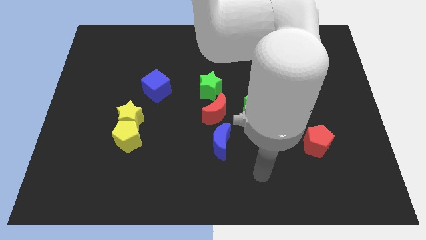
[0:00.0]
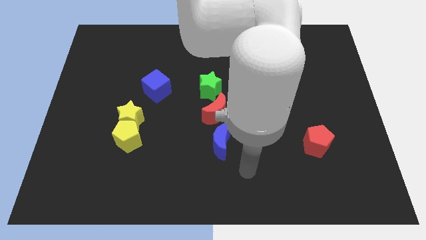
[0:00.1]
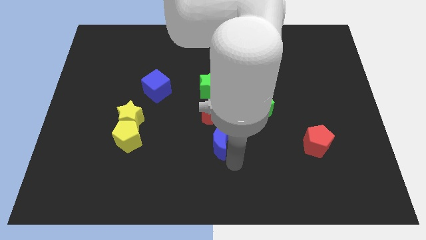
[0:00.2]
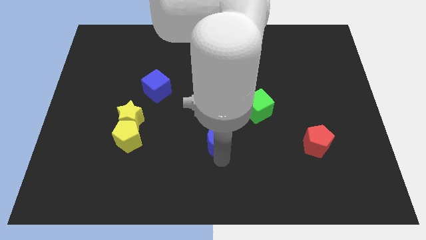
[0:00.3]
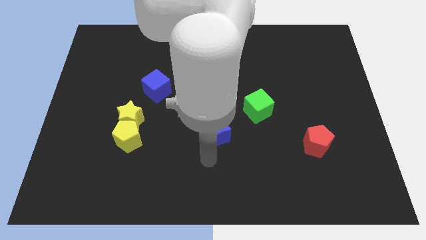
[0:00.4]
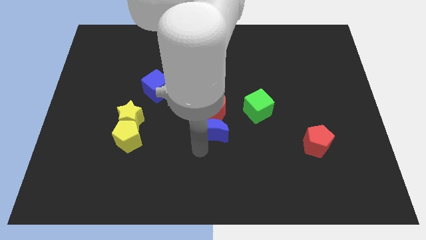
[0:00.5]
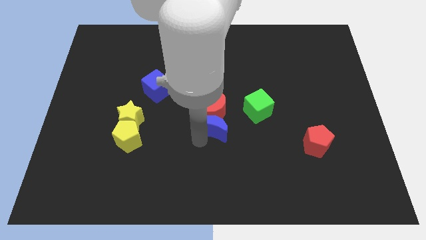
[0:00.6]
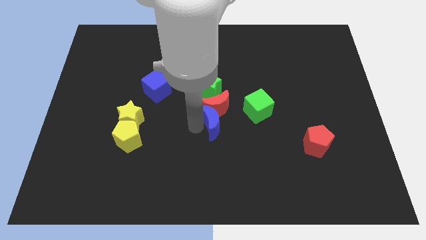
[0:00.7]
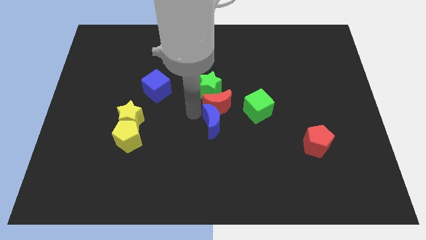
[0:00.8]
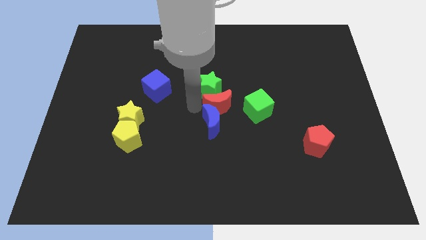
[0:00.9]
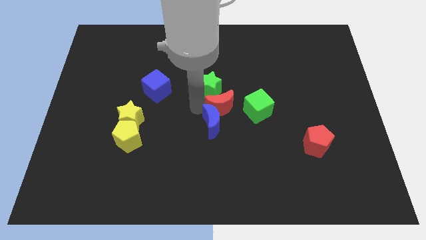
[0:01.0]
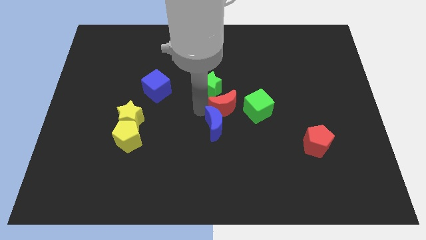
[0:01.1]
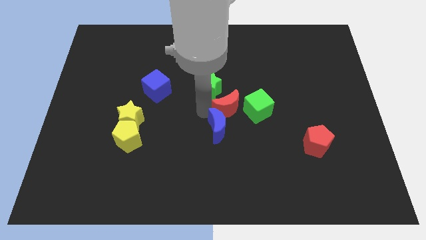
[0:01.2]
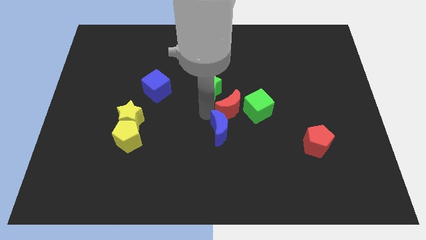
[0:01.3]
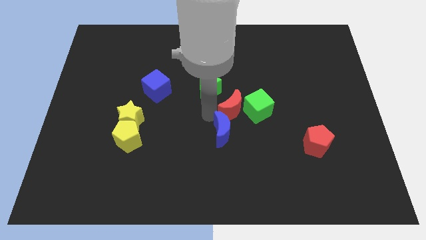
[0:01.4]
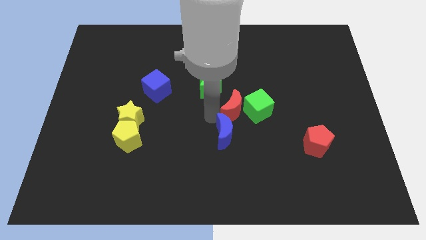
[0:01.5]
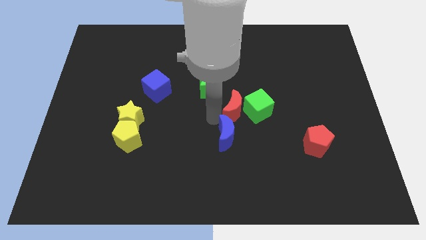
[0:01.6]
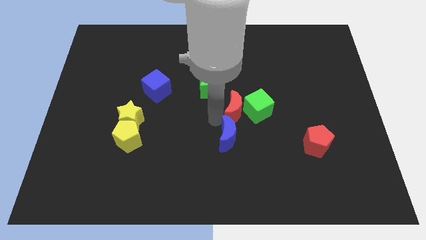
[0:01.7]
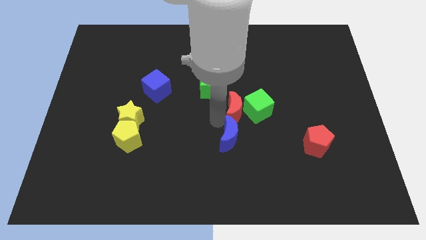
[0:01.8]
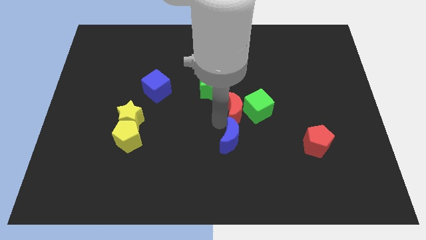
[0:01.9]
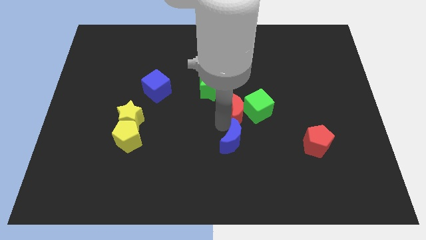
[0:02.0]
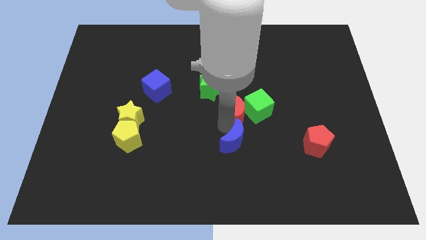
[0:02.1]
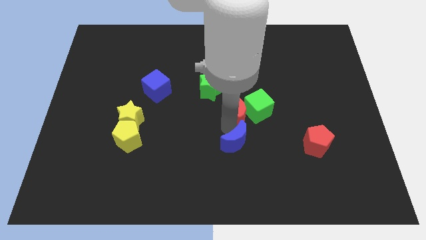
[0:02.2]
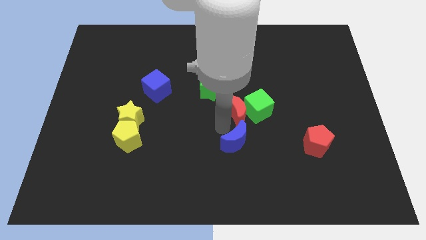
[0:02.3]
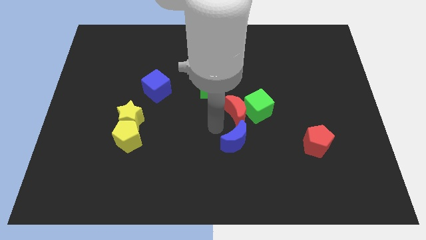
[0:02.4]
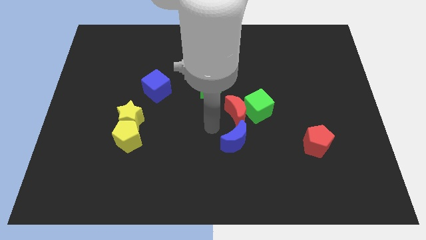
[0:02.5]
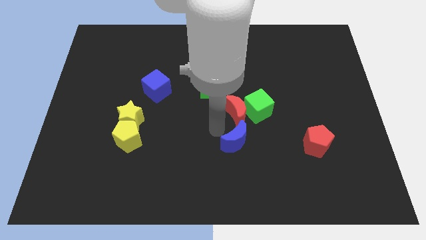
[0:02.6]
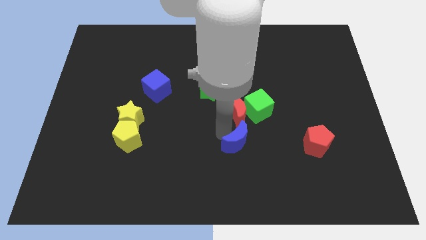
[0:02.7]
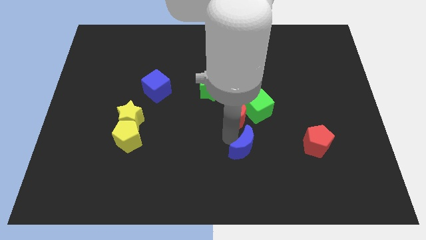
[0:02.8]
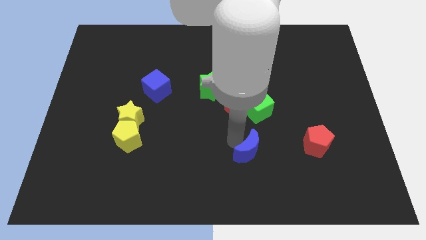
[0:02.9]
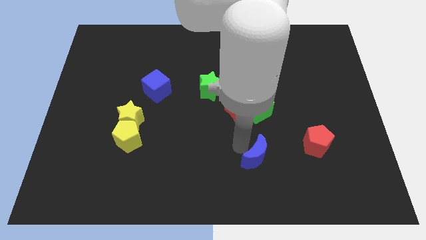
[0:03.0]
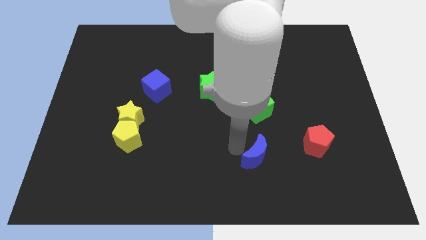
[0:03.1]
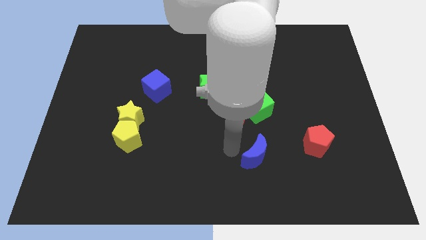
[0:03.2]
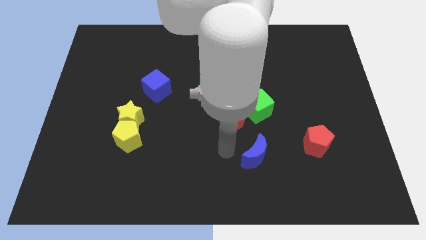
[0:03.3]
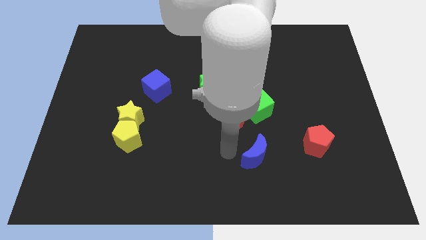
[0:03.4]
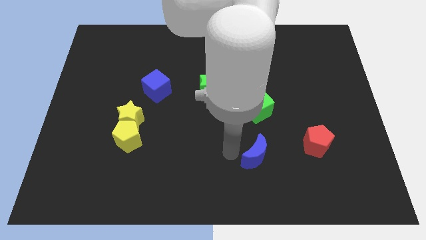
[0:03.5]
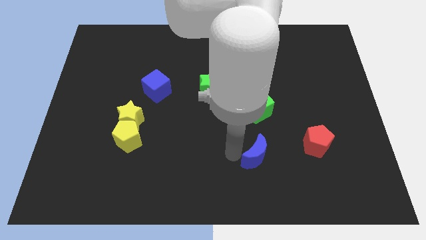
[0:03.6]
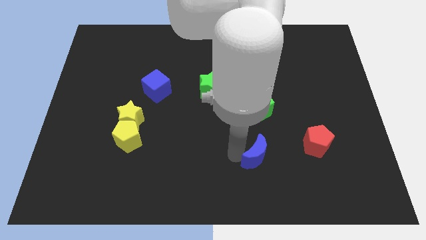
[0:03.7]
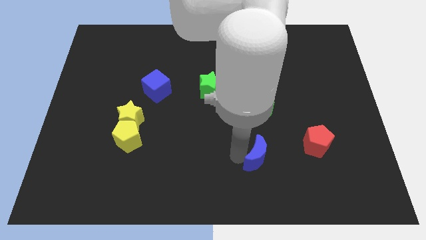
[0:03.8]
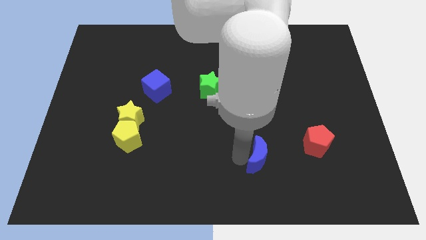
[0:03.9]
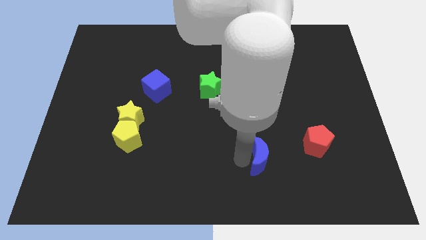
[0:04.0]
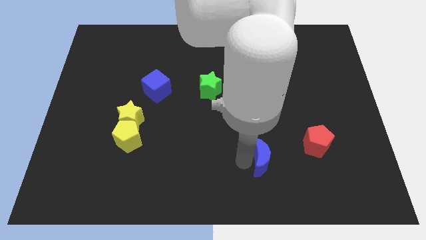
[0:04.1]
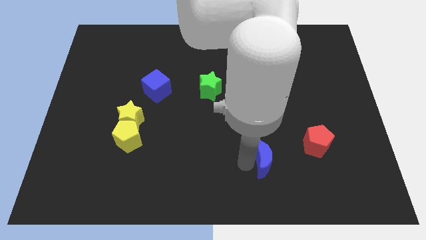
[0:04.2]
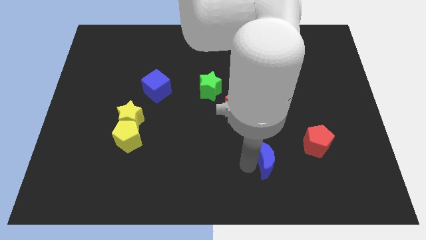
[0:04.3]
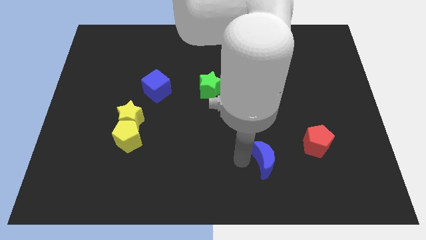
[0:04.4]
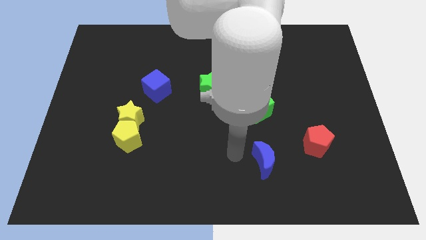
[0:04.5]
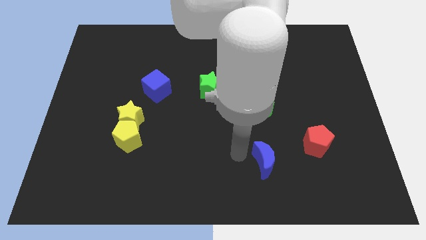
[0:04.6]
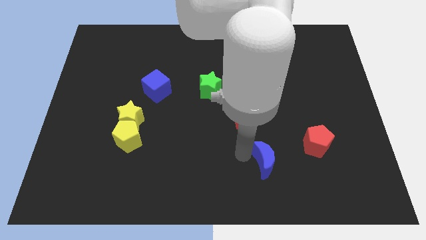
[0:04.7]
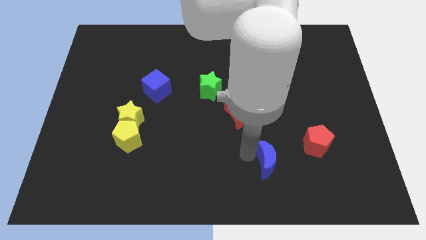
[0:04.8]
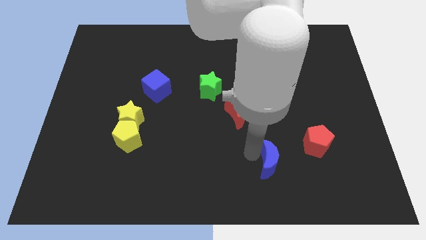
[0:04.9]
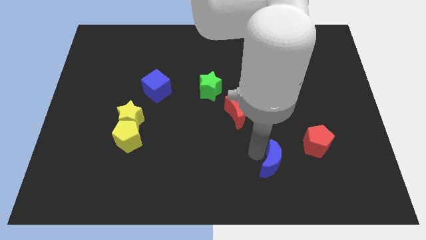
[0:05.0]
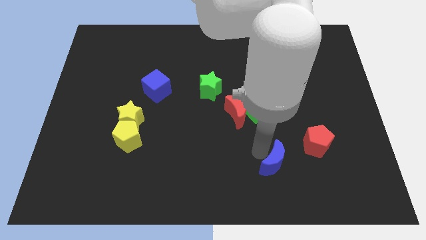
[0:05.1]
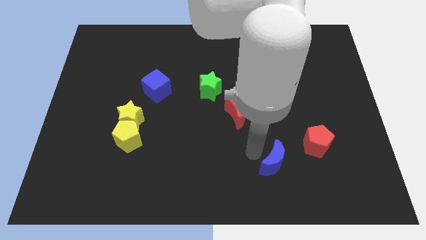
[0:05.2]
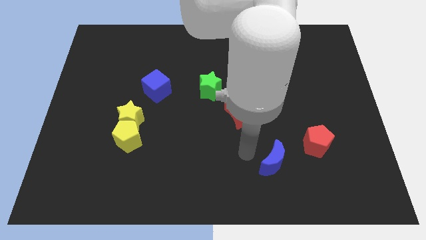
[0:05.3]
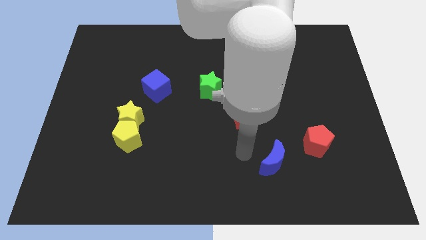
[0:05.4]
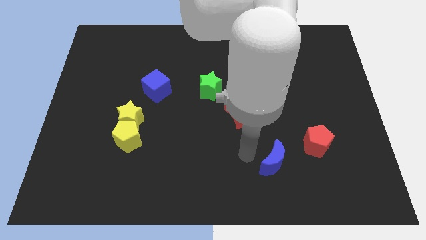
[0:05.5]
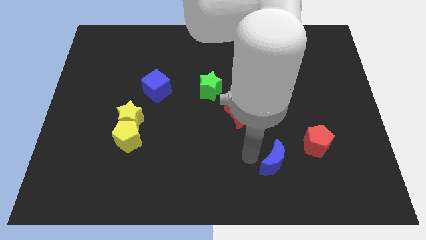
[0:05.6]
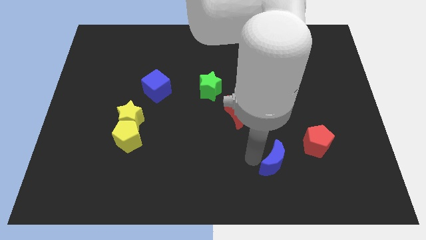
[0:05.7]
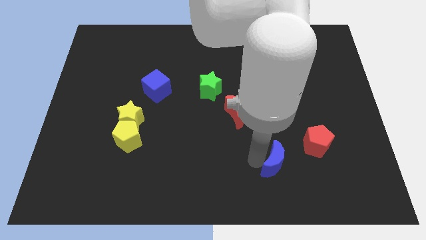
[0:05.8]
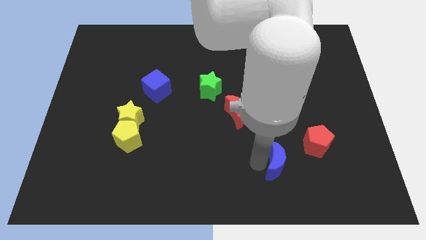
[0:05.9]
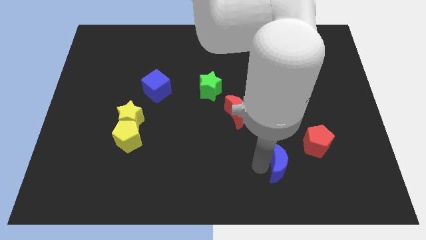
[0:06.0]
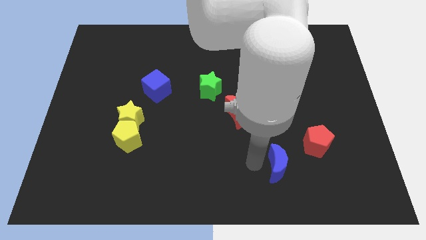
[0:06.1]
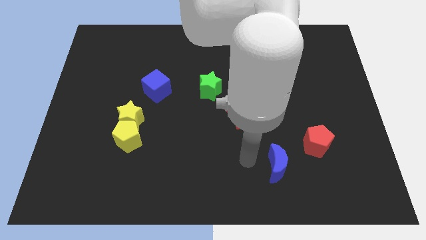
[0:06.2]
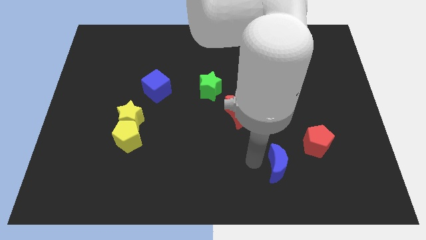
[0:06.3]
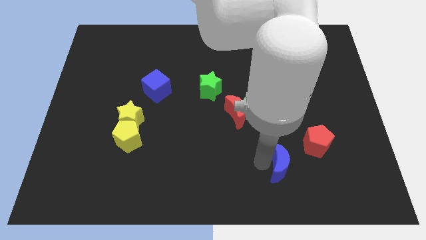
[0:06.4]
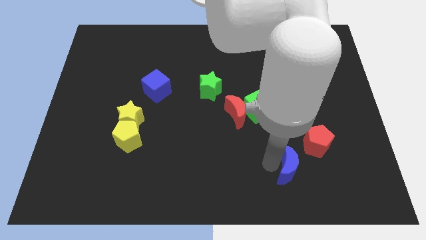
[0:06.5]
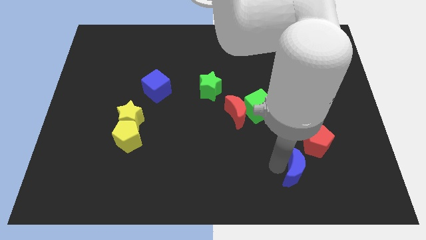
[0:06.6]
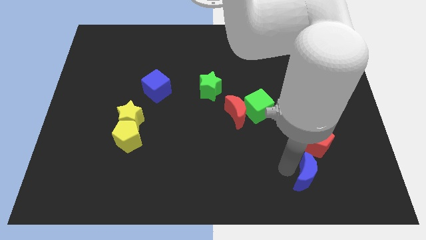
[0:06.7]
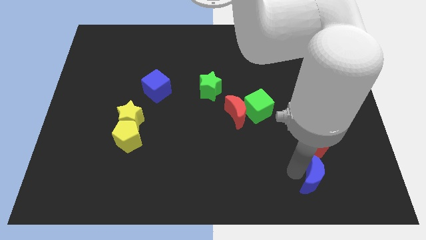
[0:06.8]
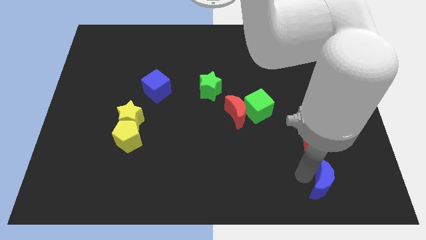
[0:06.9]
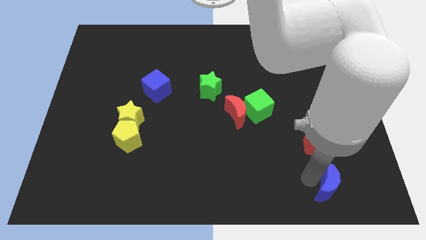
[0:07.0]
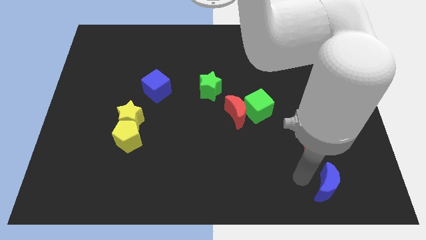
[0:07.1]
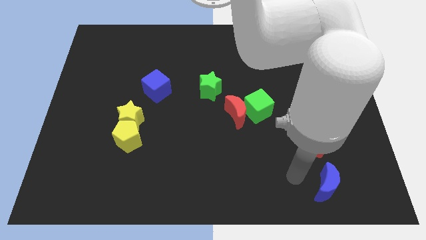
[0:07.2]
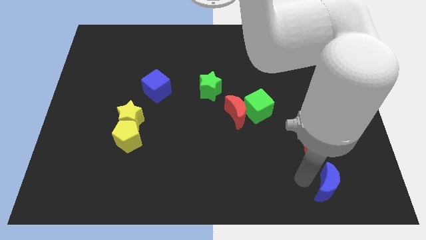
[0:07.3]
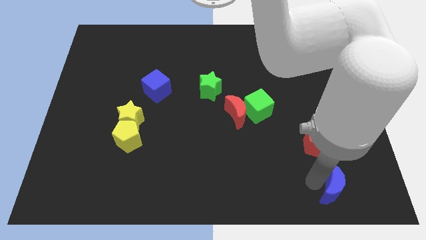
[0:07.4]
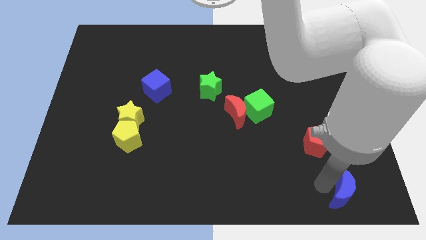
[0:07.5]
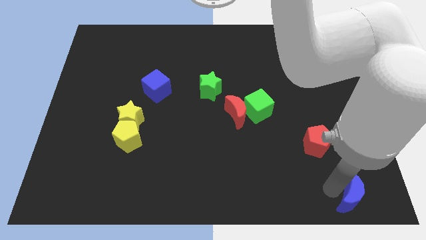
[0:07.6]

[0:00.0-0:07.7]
move the blue moon to the lower right corner
